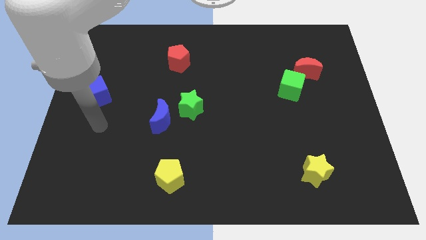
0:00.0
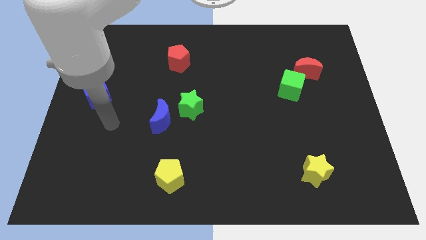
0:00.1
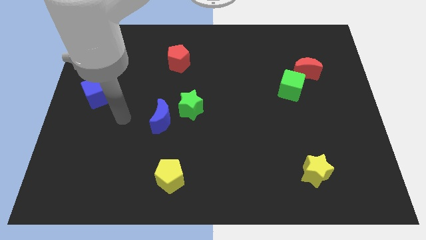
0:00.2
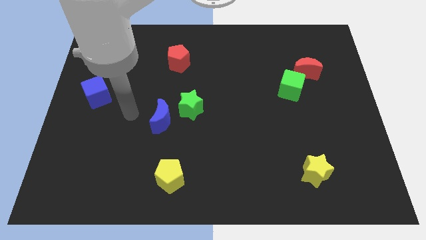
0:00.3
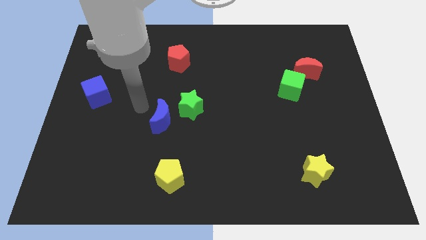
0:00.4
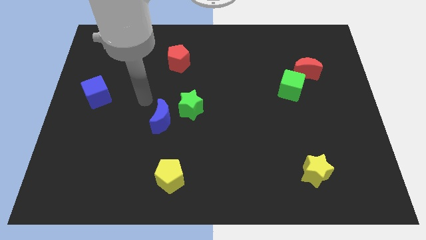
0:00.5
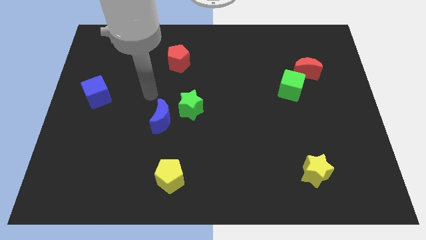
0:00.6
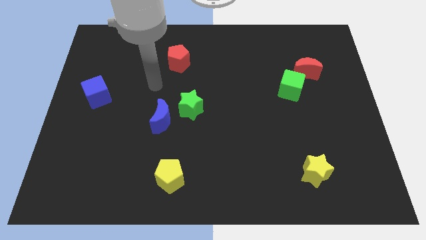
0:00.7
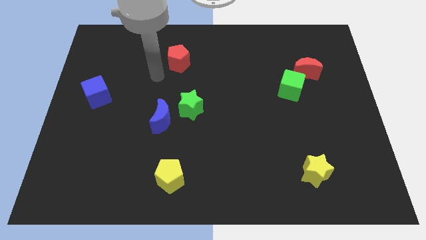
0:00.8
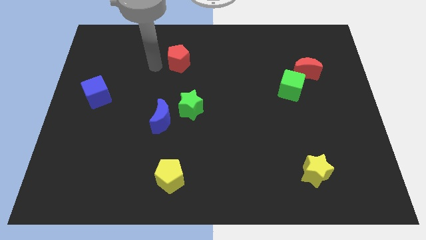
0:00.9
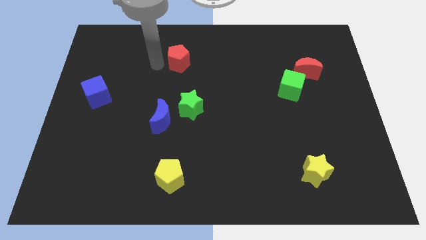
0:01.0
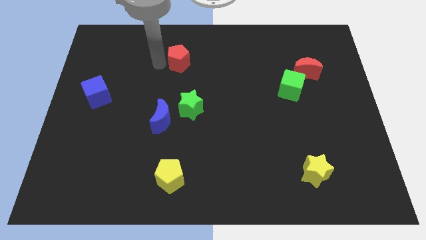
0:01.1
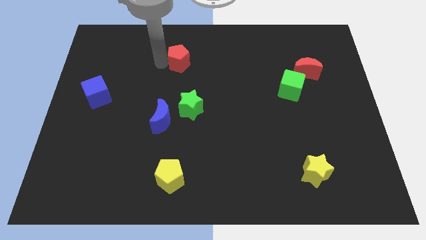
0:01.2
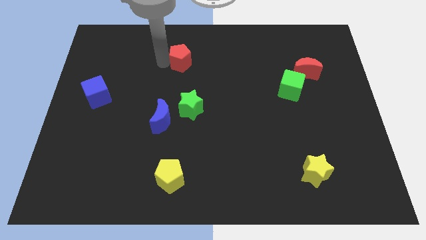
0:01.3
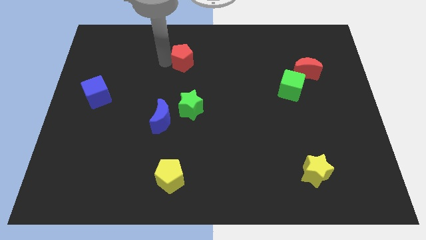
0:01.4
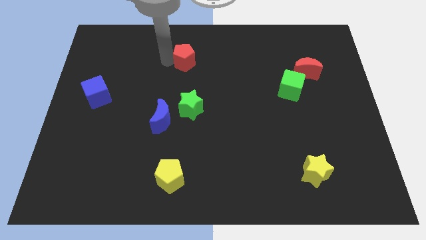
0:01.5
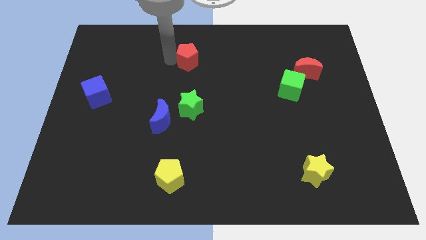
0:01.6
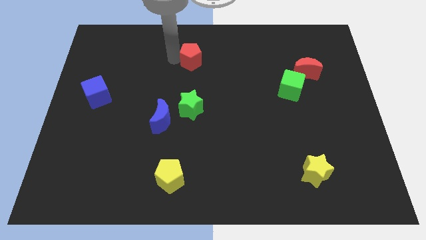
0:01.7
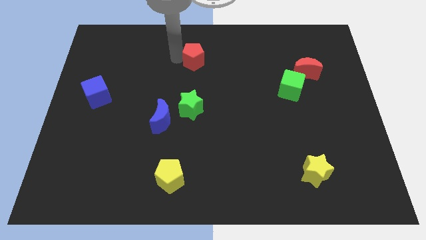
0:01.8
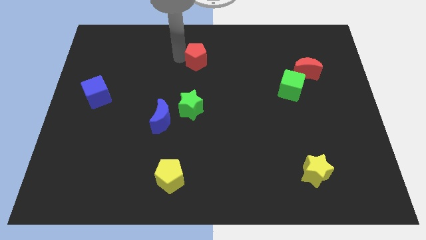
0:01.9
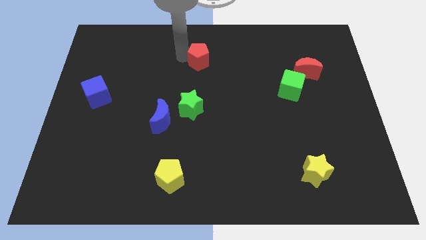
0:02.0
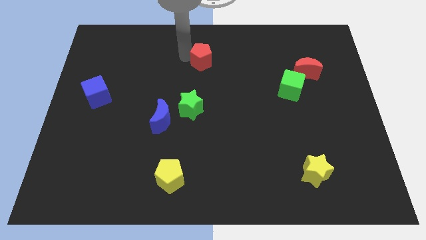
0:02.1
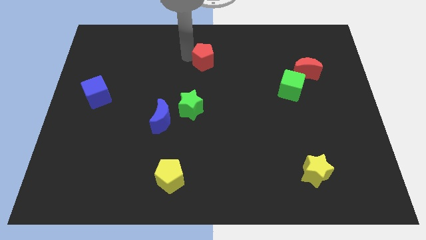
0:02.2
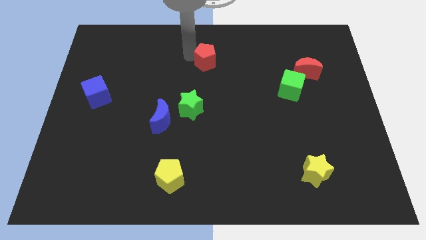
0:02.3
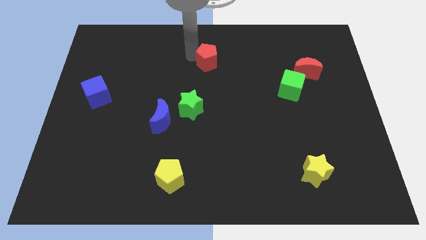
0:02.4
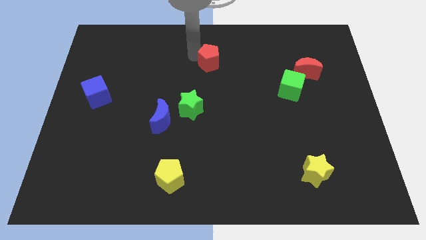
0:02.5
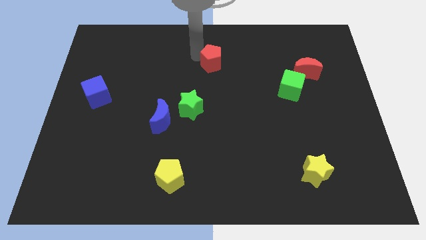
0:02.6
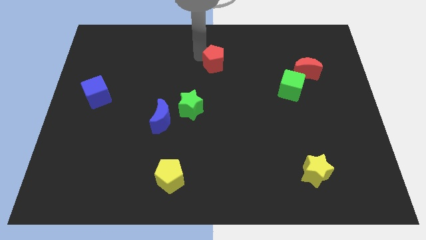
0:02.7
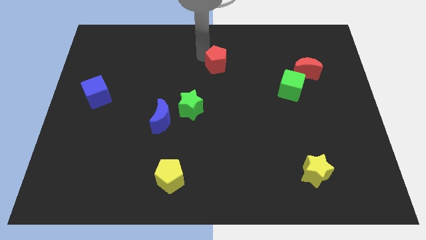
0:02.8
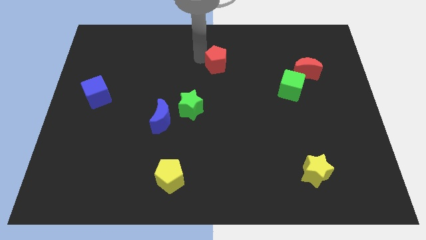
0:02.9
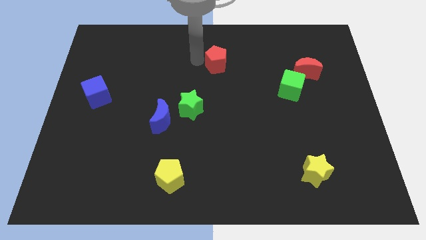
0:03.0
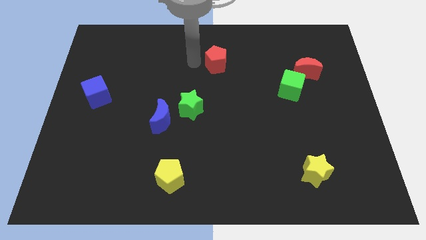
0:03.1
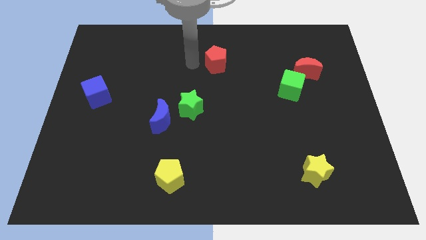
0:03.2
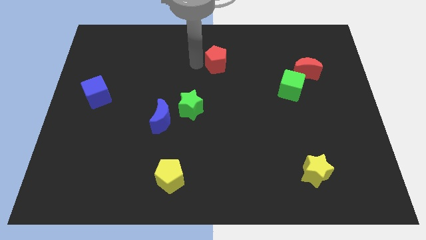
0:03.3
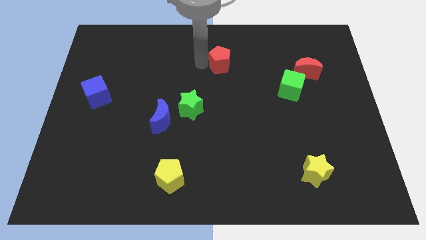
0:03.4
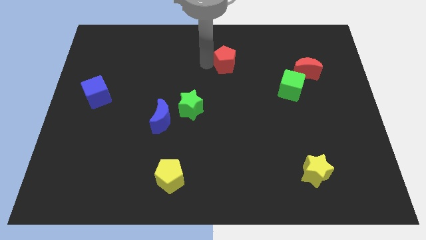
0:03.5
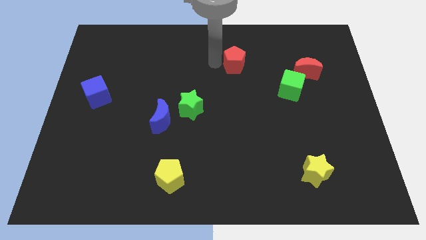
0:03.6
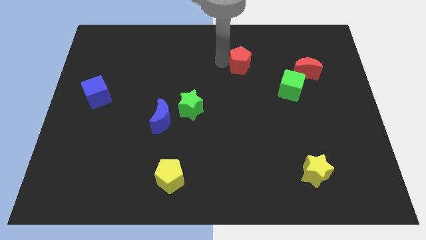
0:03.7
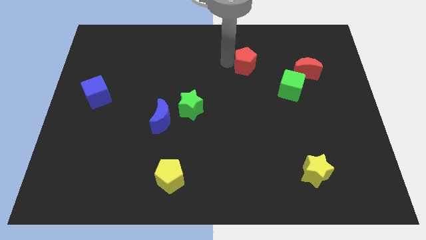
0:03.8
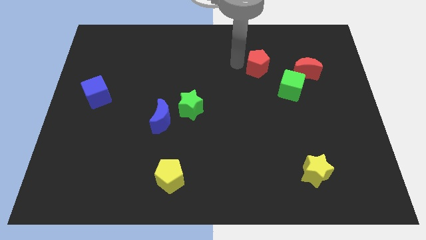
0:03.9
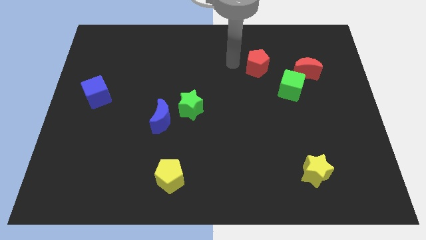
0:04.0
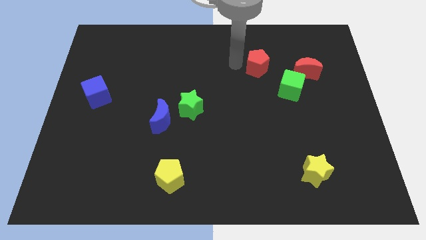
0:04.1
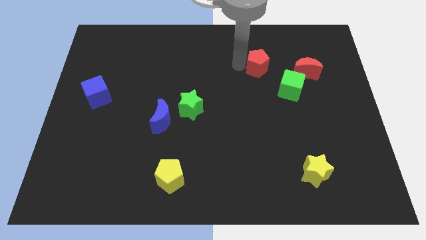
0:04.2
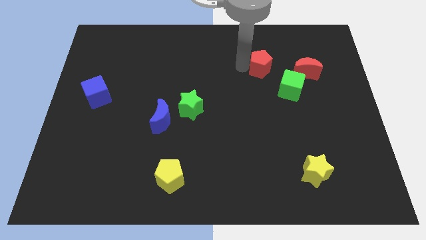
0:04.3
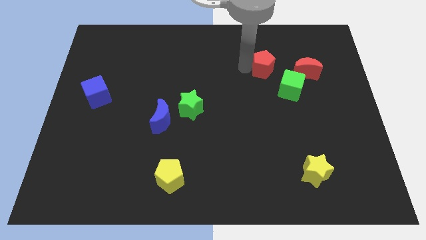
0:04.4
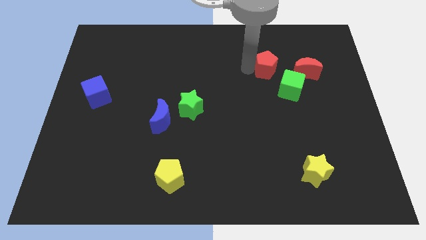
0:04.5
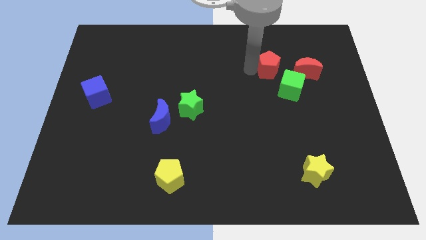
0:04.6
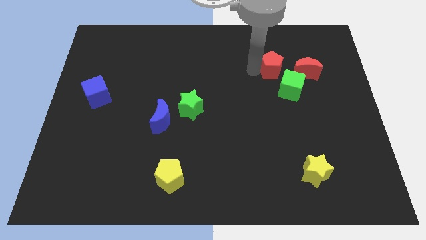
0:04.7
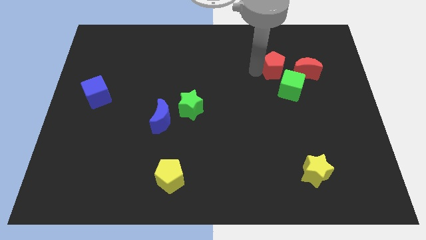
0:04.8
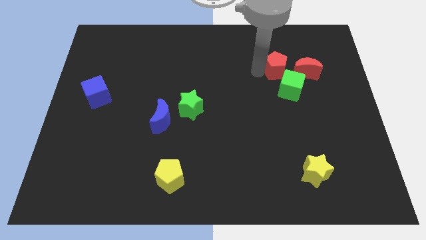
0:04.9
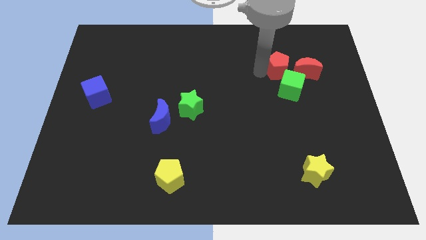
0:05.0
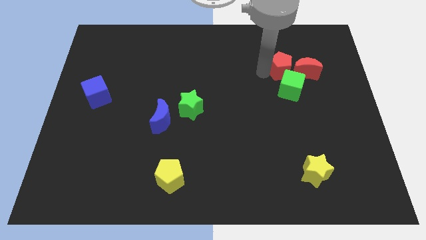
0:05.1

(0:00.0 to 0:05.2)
push the red pentagon to the red moon

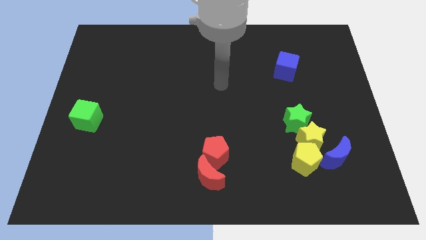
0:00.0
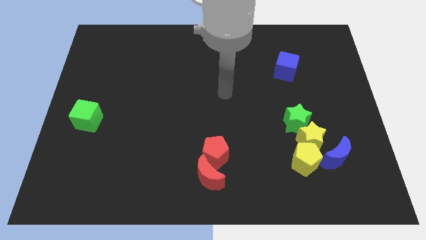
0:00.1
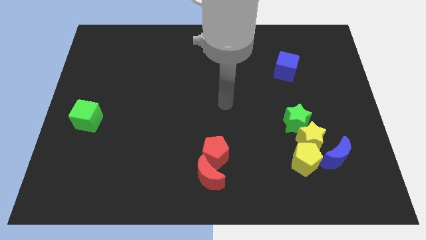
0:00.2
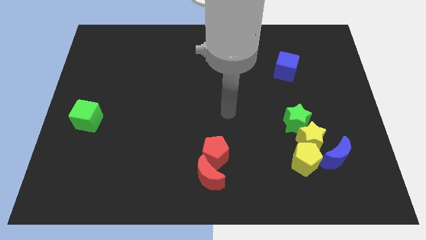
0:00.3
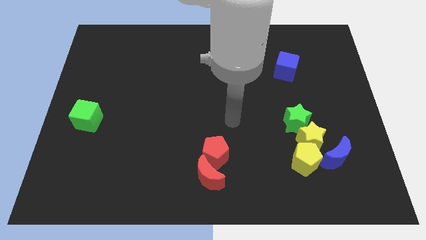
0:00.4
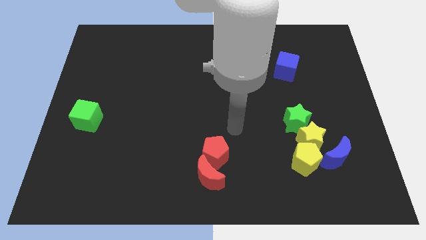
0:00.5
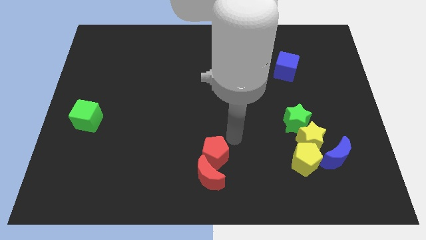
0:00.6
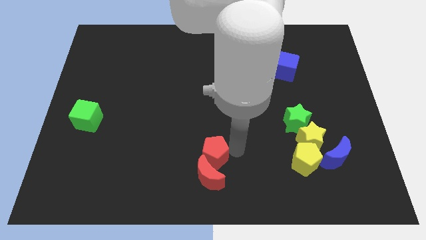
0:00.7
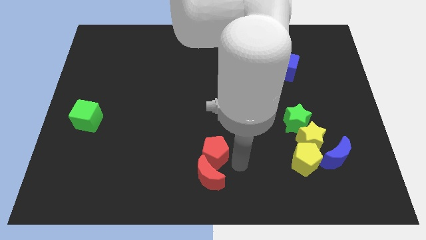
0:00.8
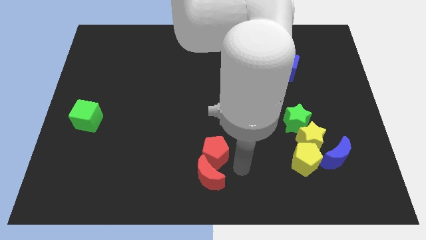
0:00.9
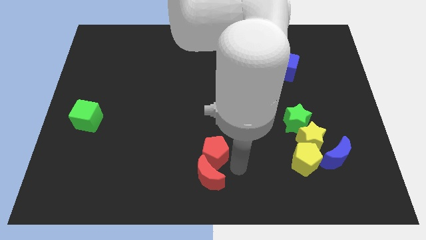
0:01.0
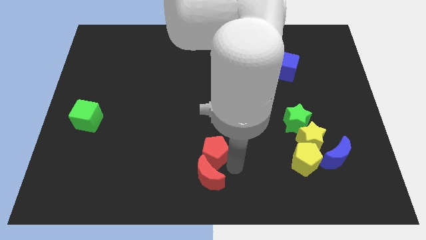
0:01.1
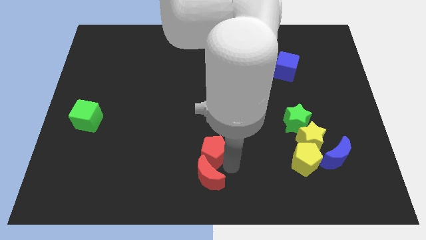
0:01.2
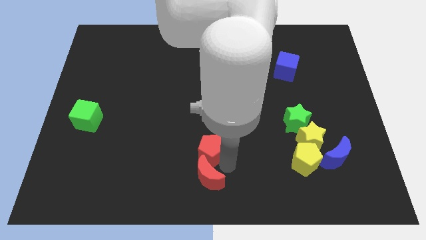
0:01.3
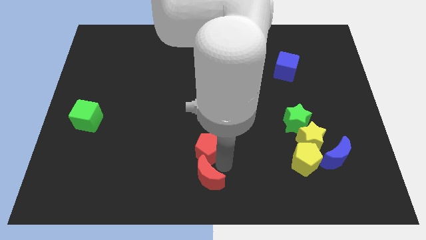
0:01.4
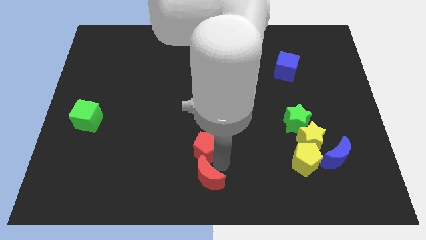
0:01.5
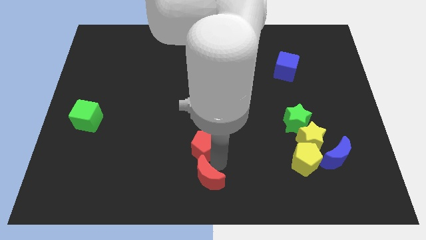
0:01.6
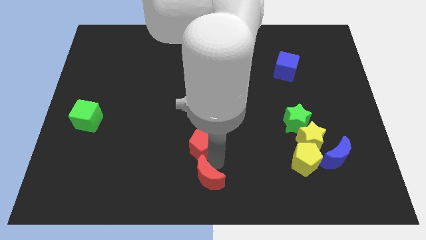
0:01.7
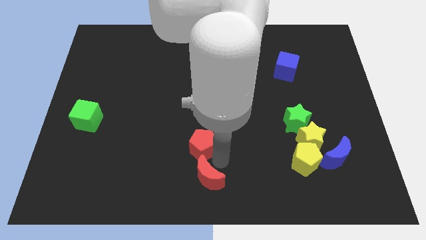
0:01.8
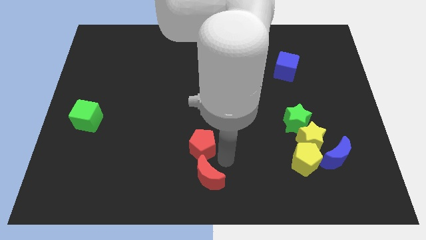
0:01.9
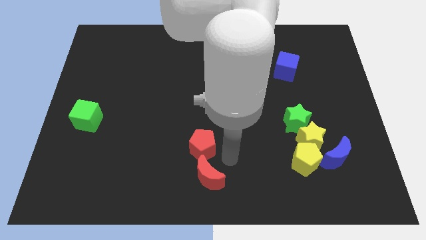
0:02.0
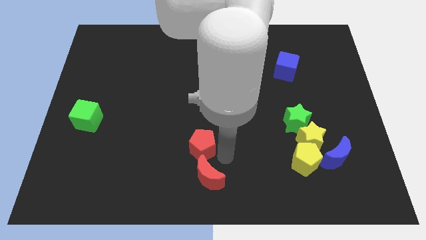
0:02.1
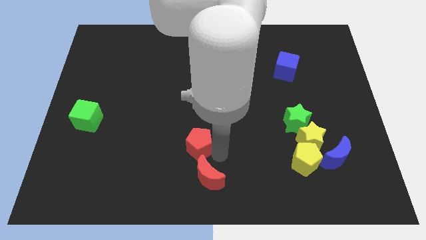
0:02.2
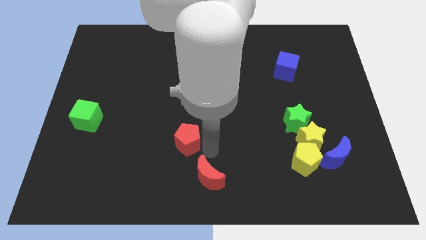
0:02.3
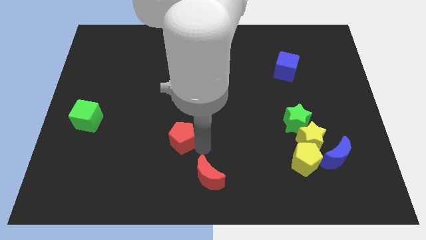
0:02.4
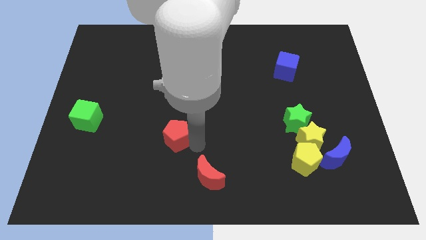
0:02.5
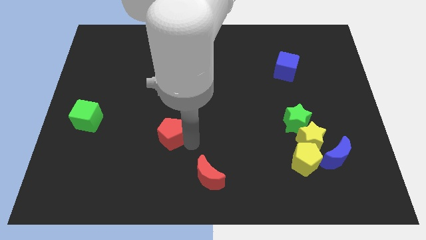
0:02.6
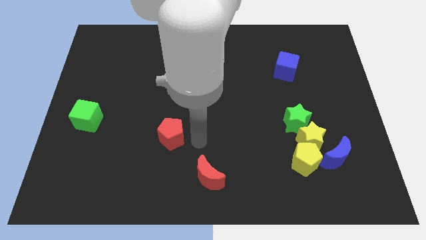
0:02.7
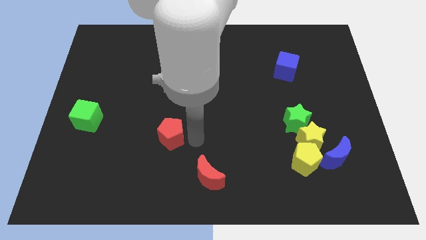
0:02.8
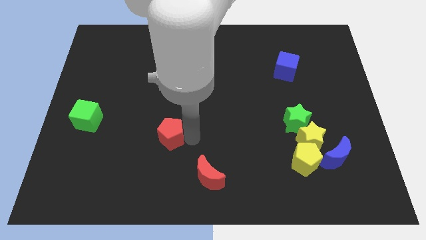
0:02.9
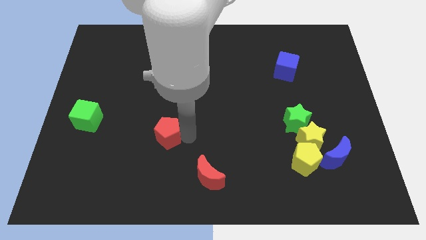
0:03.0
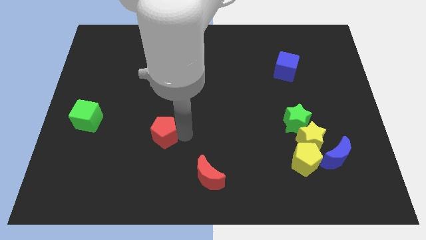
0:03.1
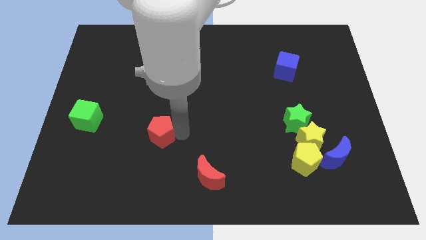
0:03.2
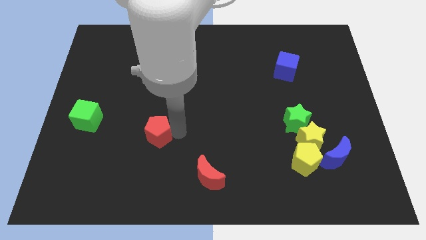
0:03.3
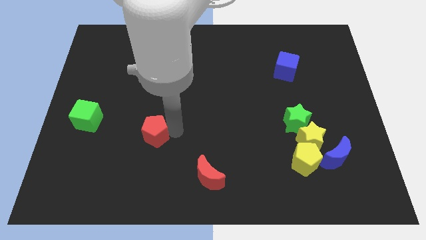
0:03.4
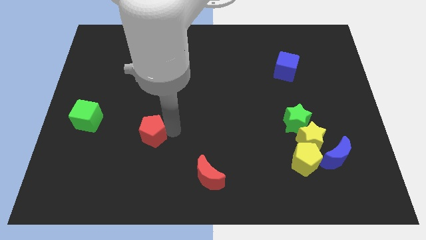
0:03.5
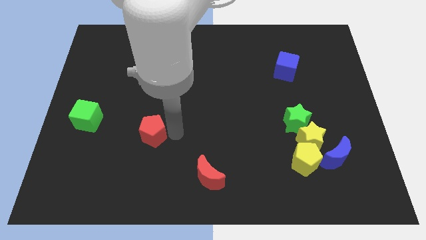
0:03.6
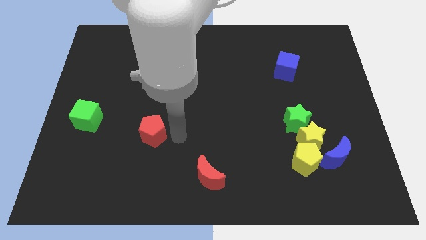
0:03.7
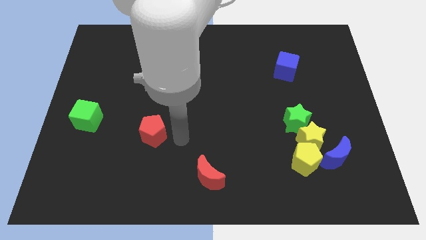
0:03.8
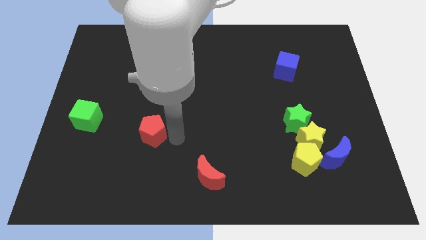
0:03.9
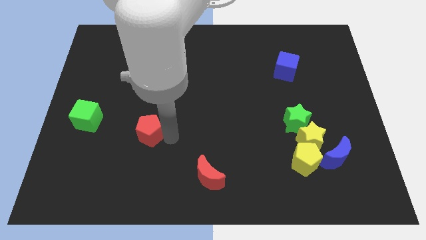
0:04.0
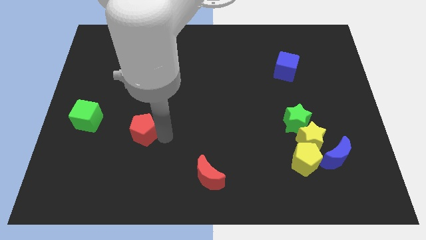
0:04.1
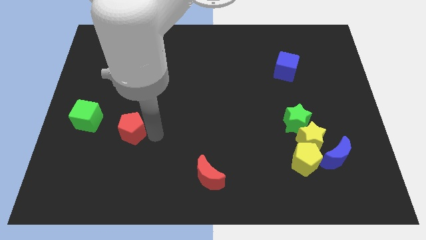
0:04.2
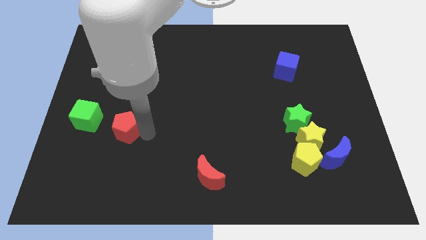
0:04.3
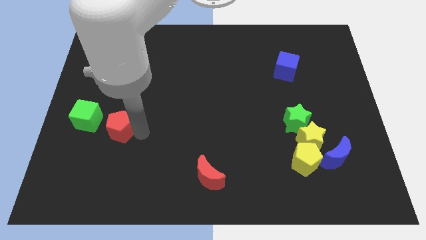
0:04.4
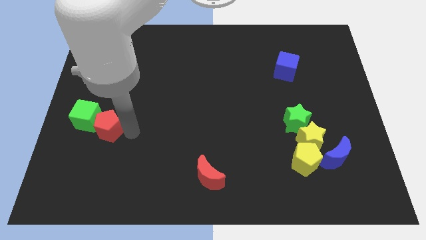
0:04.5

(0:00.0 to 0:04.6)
slide the red pentagon towards the green cube
